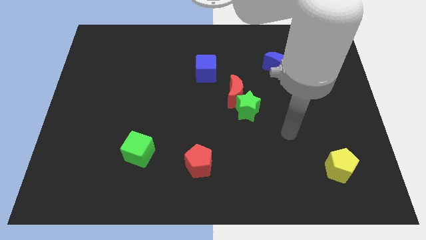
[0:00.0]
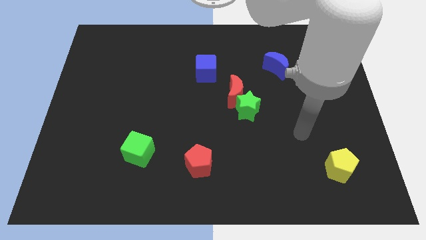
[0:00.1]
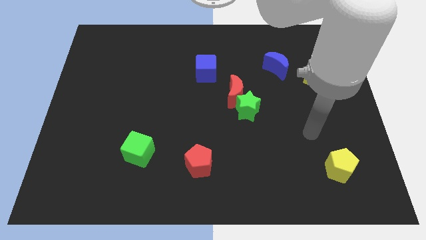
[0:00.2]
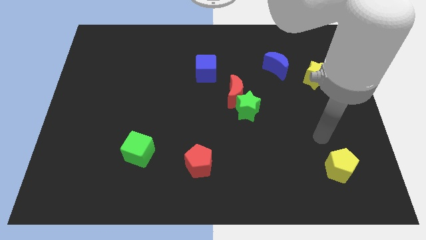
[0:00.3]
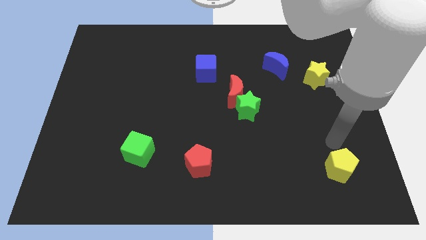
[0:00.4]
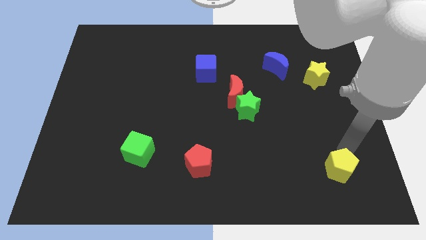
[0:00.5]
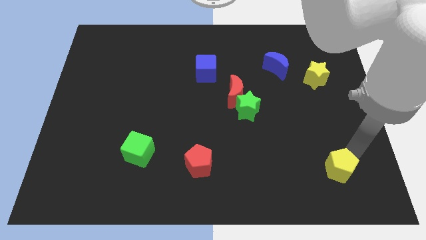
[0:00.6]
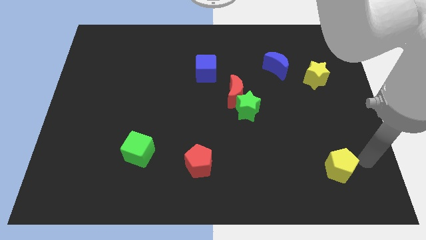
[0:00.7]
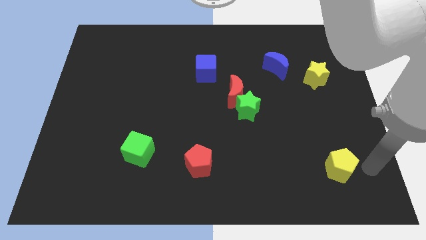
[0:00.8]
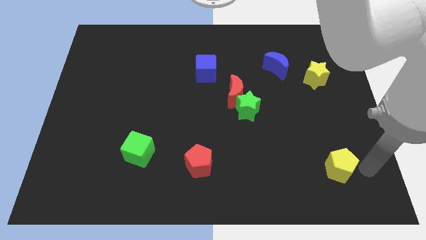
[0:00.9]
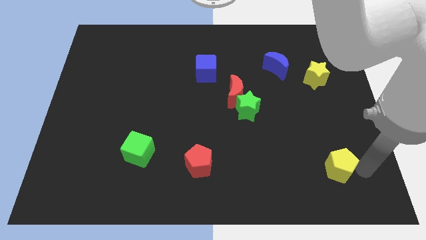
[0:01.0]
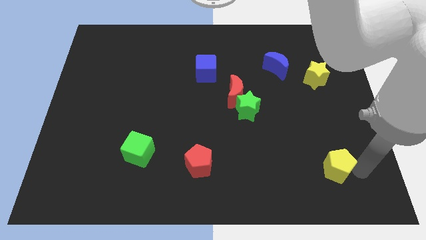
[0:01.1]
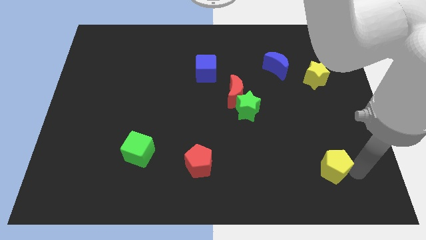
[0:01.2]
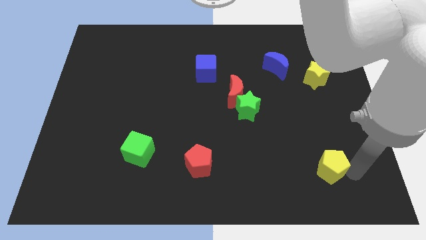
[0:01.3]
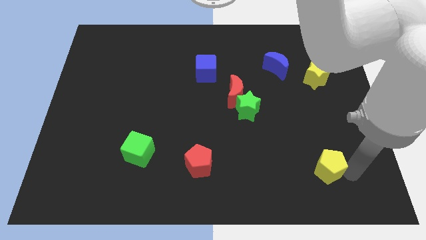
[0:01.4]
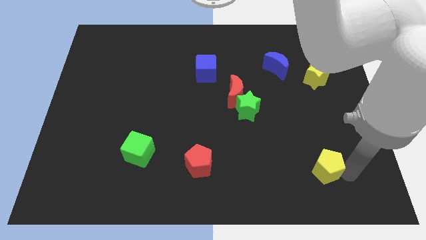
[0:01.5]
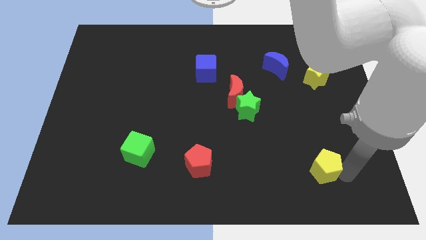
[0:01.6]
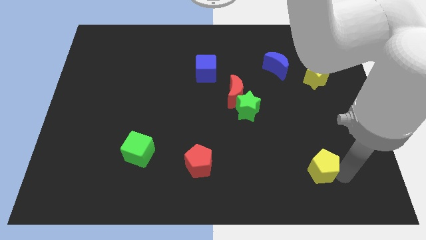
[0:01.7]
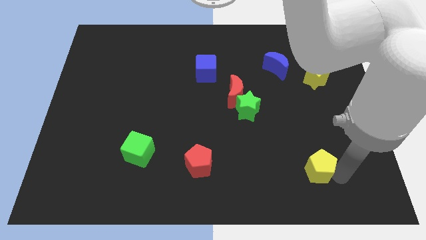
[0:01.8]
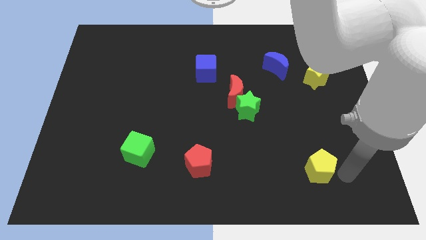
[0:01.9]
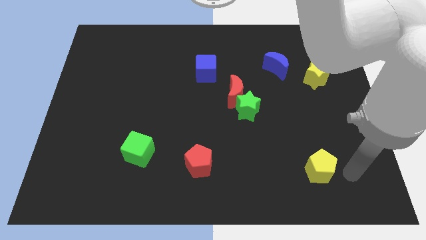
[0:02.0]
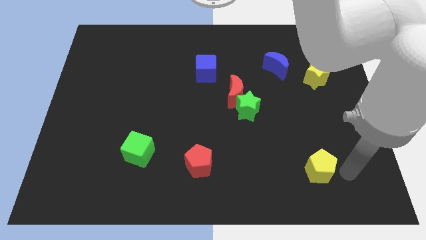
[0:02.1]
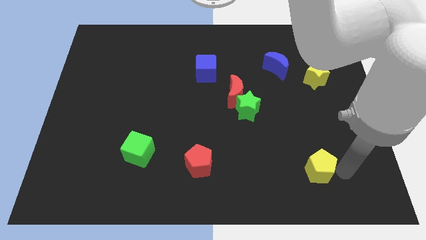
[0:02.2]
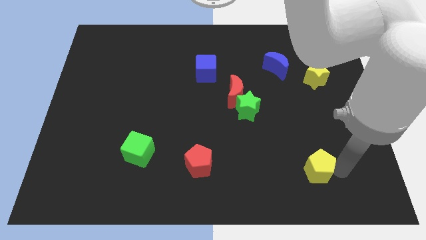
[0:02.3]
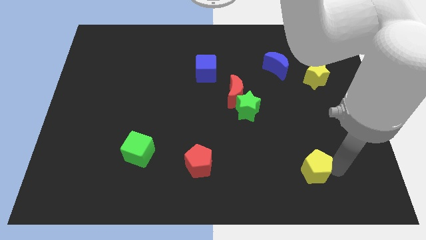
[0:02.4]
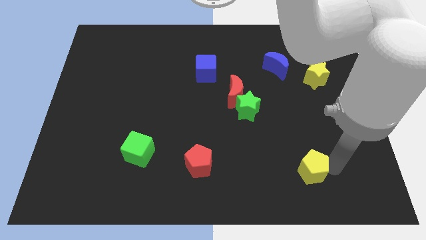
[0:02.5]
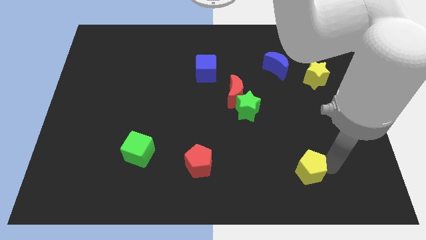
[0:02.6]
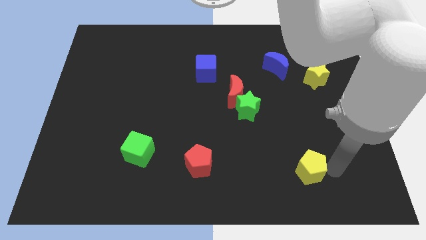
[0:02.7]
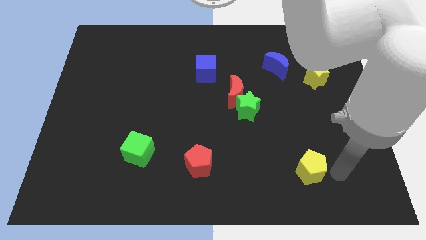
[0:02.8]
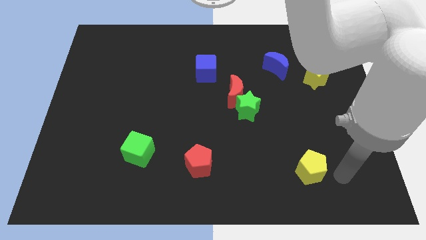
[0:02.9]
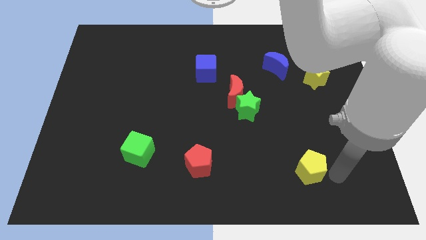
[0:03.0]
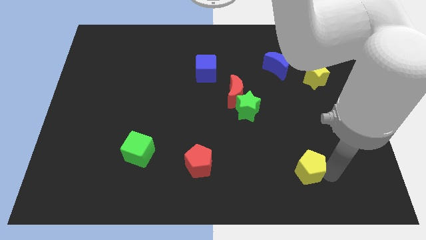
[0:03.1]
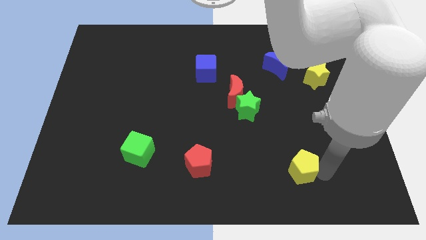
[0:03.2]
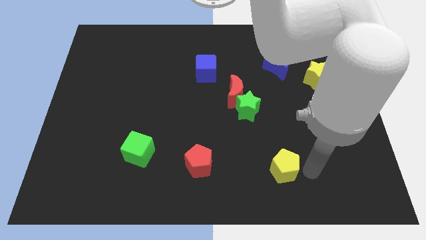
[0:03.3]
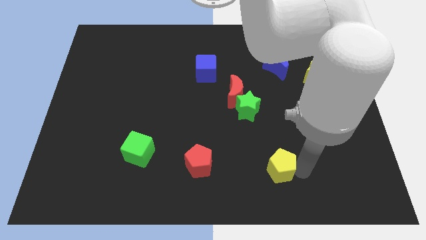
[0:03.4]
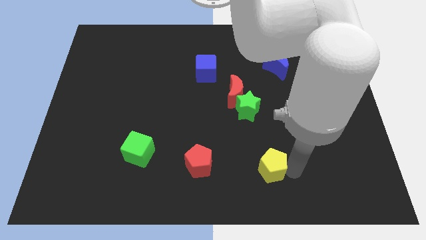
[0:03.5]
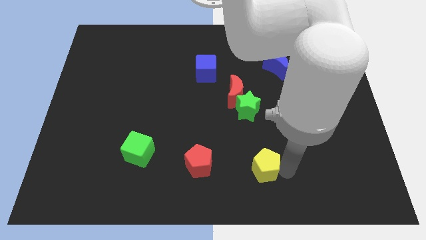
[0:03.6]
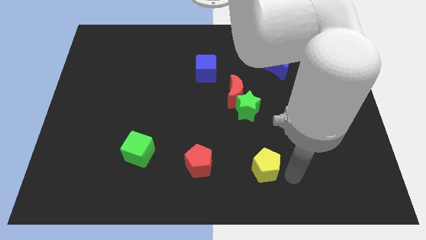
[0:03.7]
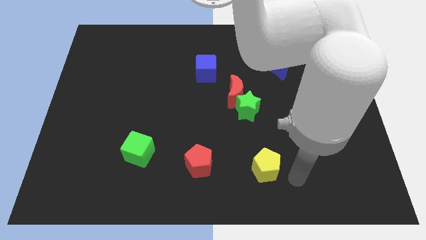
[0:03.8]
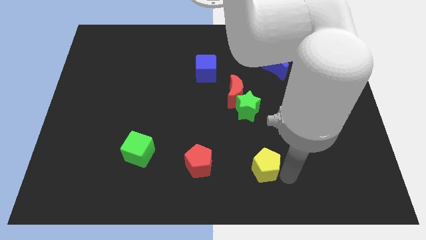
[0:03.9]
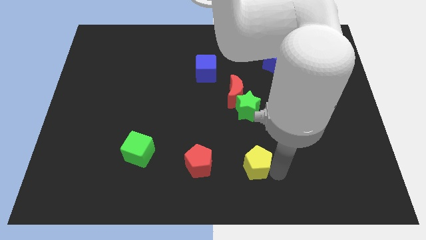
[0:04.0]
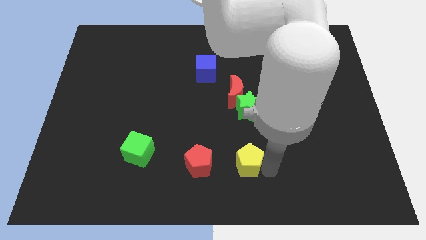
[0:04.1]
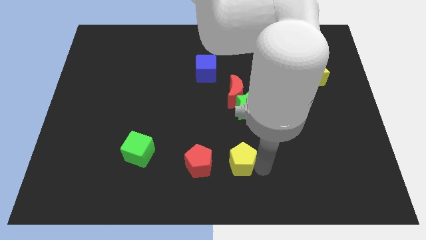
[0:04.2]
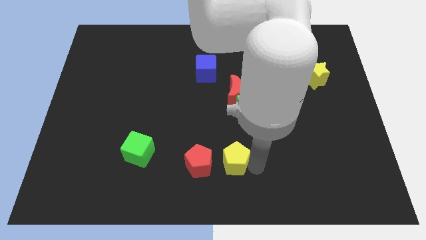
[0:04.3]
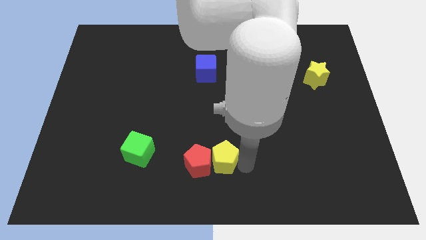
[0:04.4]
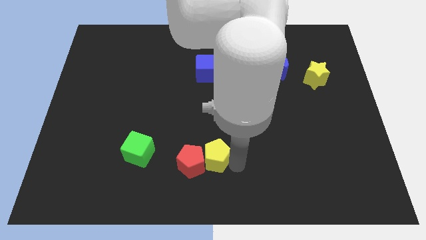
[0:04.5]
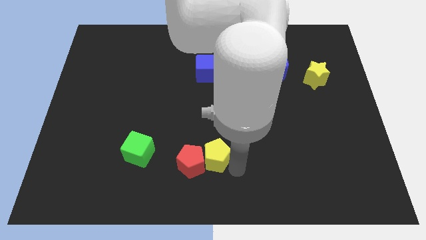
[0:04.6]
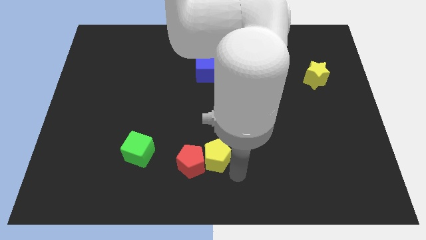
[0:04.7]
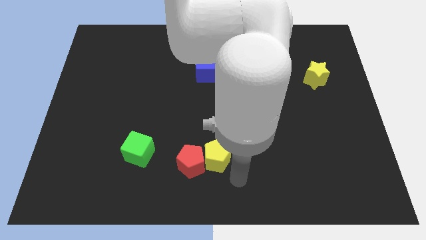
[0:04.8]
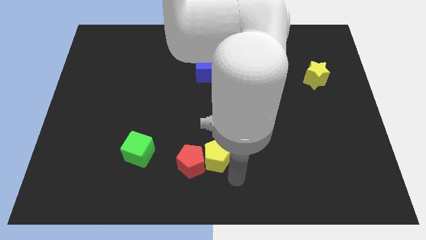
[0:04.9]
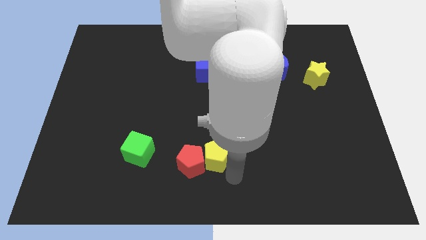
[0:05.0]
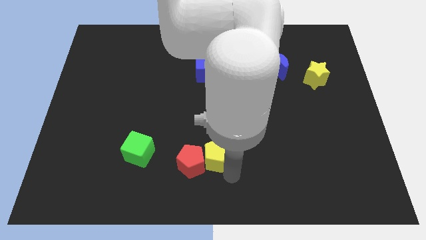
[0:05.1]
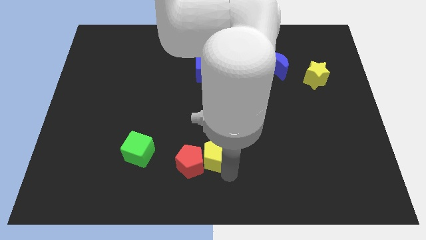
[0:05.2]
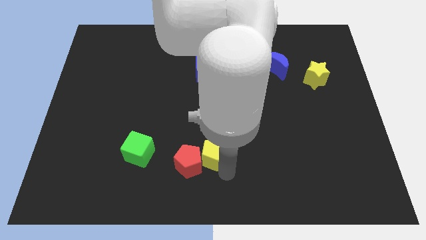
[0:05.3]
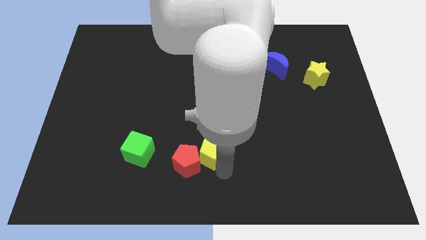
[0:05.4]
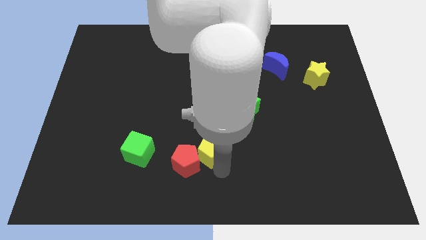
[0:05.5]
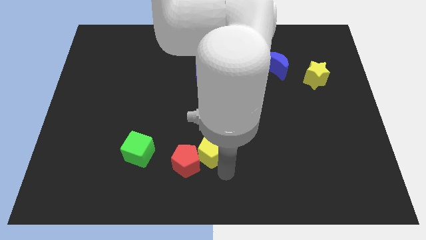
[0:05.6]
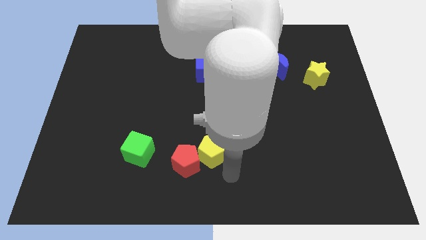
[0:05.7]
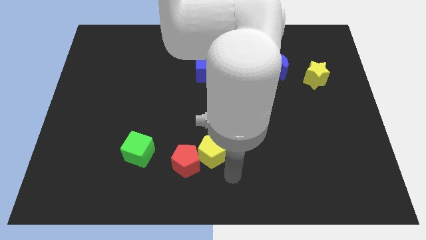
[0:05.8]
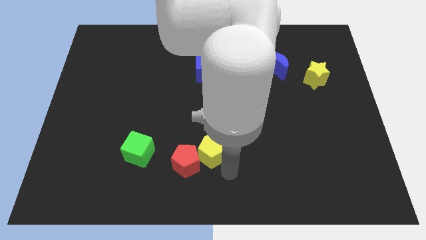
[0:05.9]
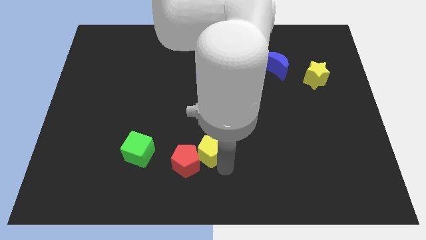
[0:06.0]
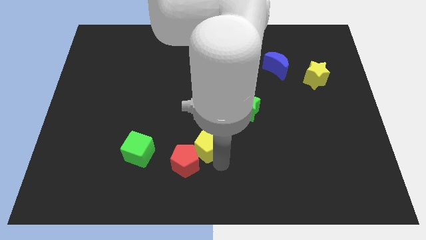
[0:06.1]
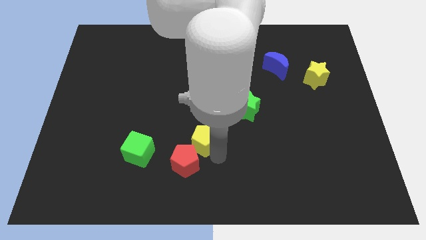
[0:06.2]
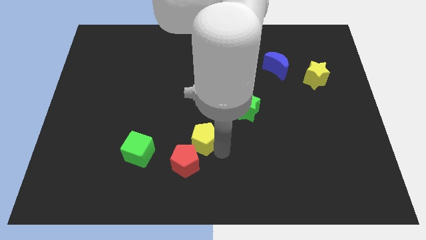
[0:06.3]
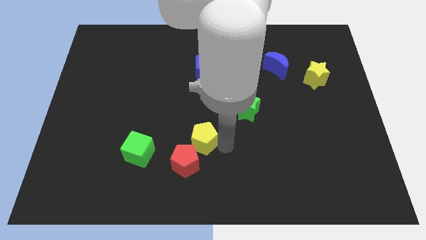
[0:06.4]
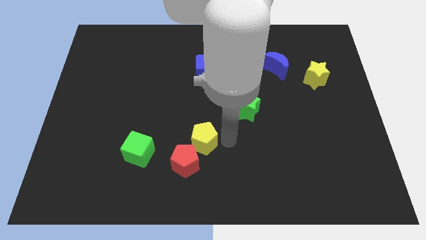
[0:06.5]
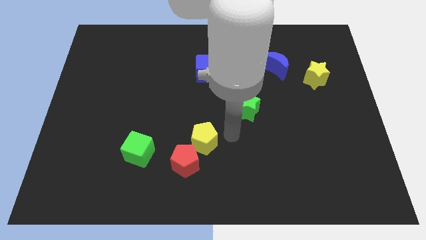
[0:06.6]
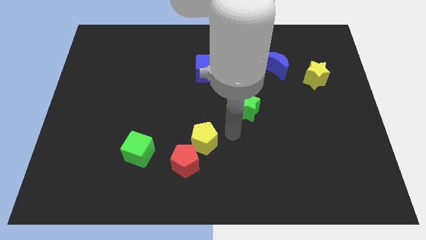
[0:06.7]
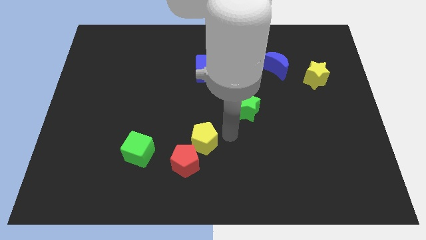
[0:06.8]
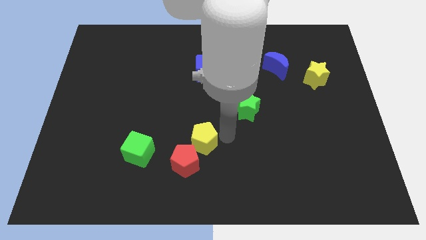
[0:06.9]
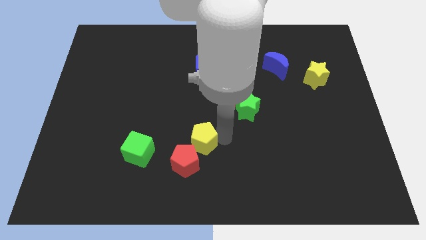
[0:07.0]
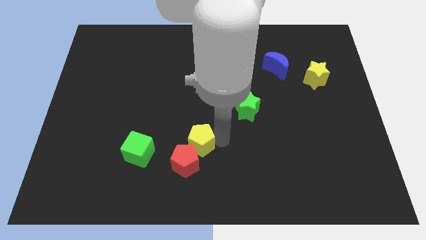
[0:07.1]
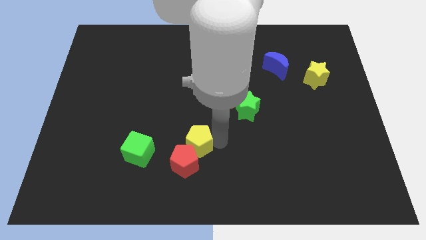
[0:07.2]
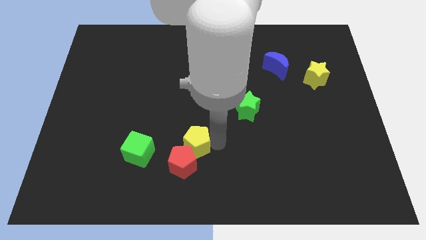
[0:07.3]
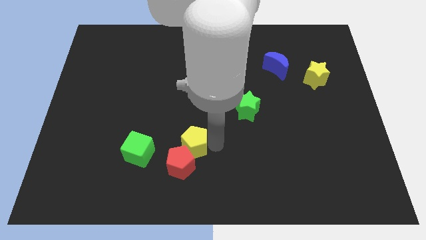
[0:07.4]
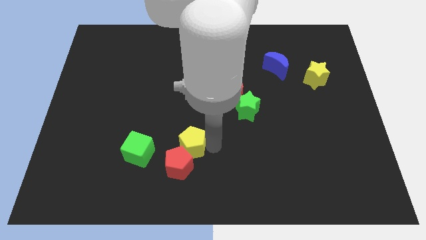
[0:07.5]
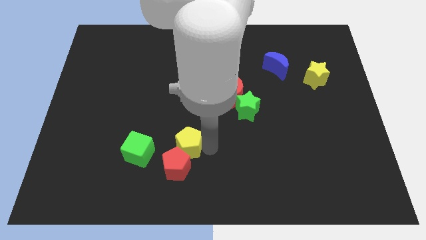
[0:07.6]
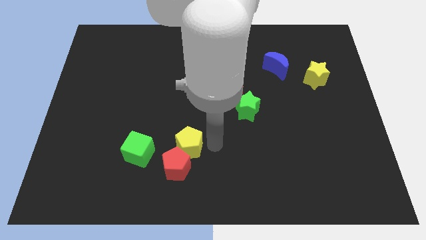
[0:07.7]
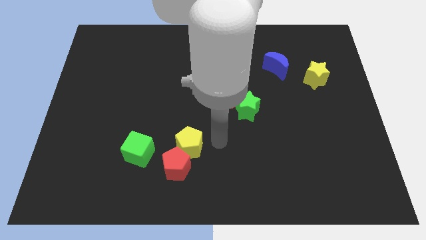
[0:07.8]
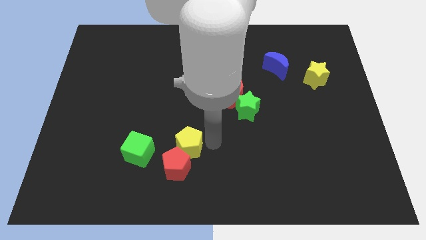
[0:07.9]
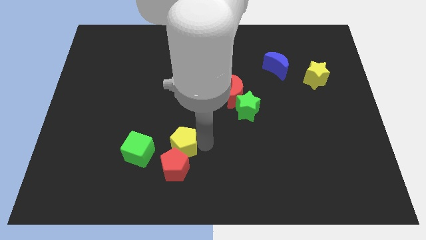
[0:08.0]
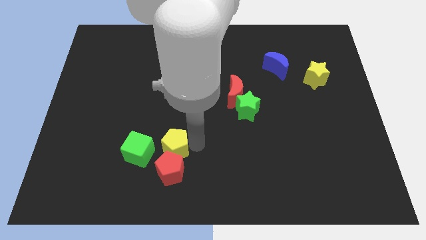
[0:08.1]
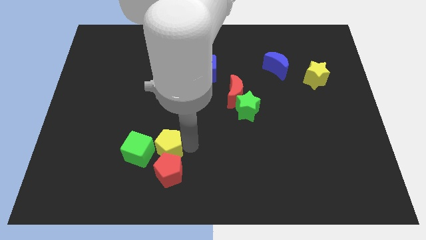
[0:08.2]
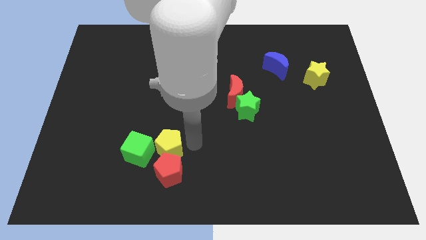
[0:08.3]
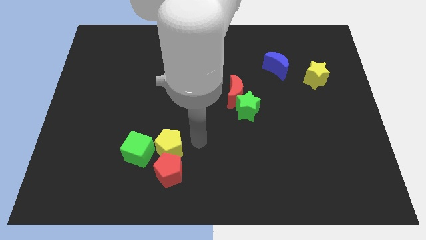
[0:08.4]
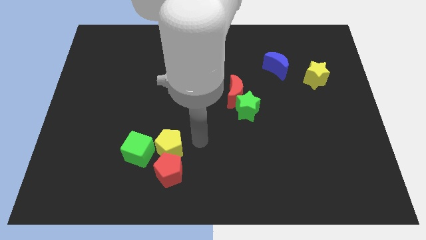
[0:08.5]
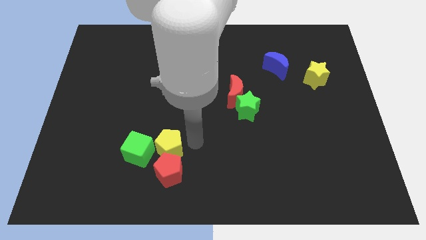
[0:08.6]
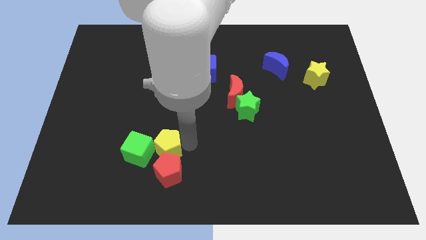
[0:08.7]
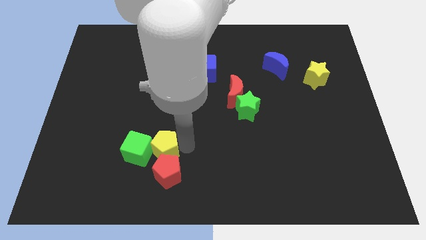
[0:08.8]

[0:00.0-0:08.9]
slide the yellow pentagon next to the green cube
